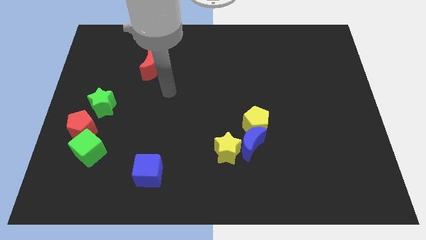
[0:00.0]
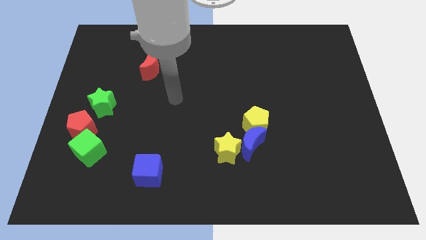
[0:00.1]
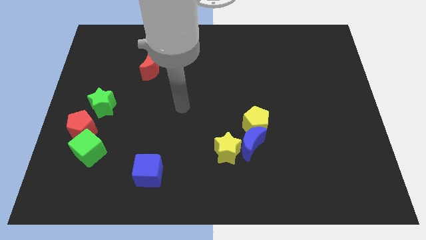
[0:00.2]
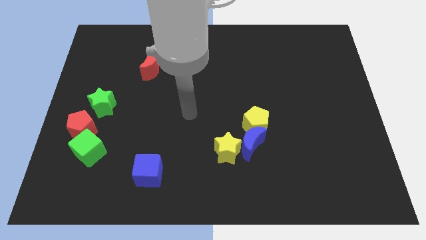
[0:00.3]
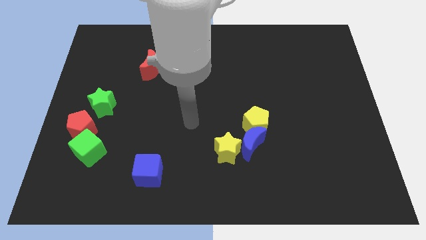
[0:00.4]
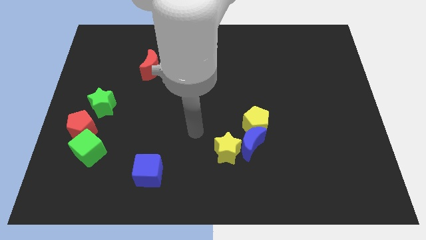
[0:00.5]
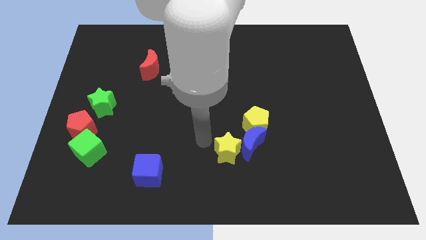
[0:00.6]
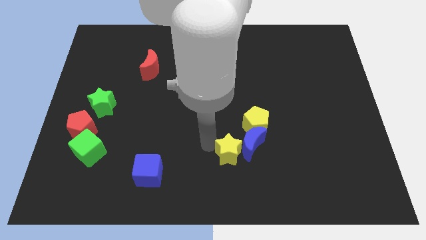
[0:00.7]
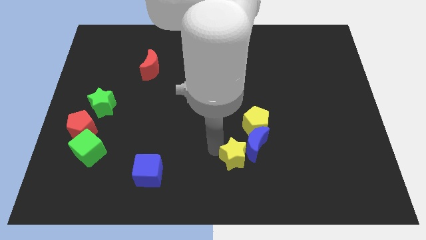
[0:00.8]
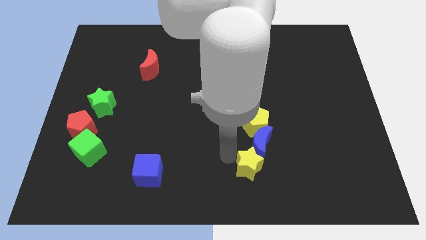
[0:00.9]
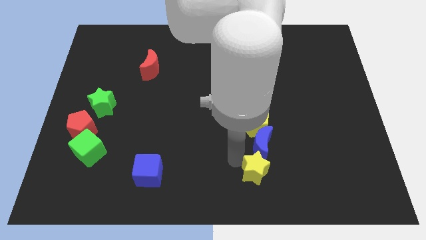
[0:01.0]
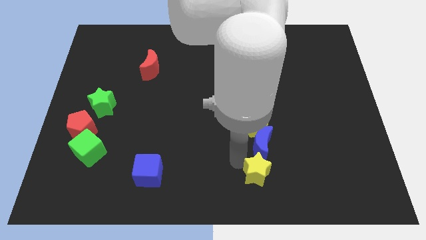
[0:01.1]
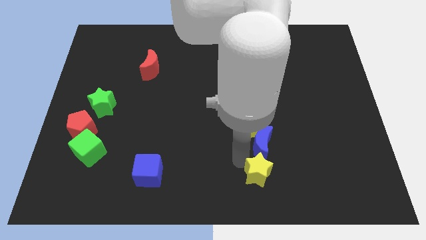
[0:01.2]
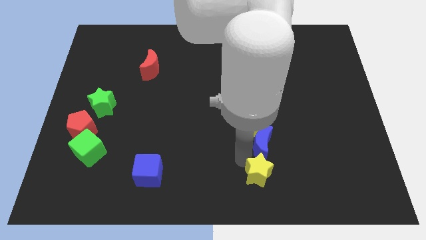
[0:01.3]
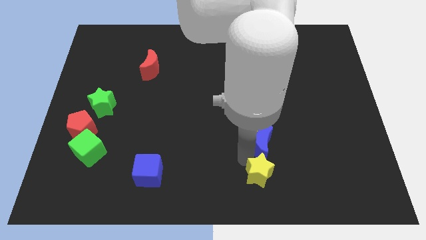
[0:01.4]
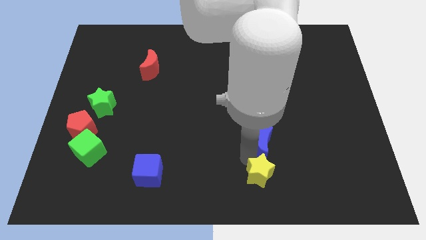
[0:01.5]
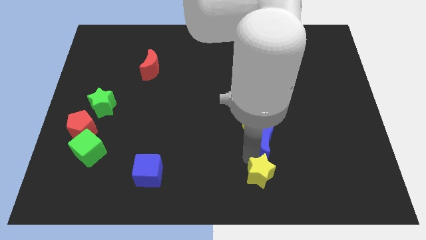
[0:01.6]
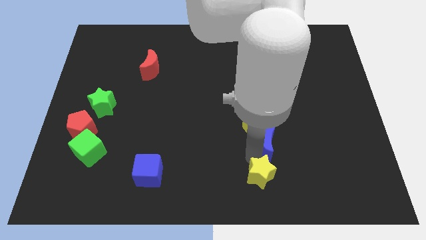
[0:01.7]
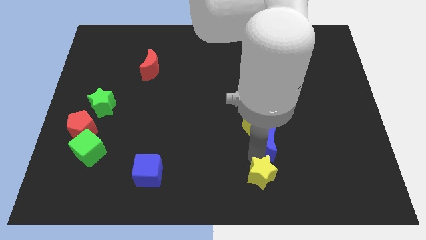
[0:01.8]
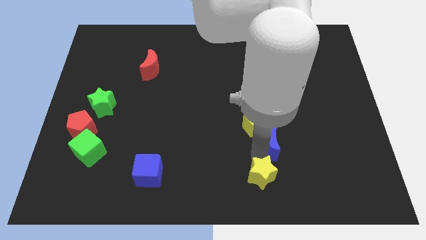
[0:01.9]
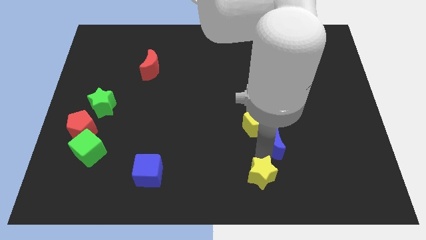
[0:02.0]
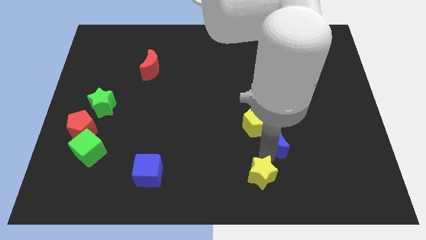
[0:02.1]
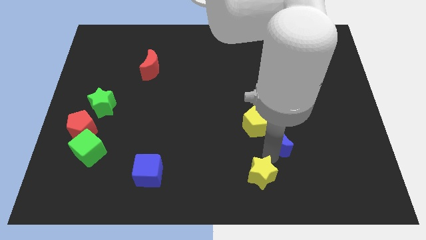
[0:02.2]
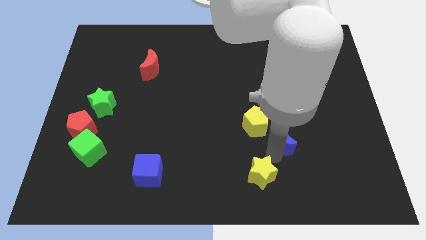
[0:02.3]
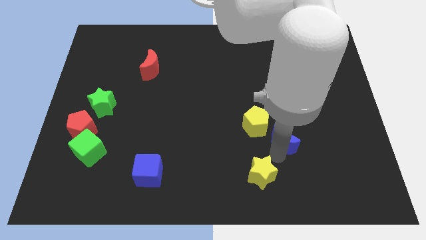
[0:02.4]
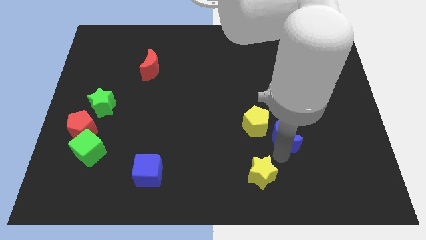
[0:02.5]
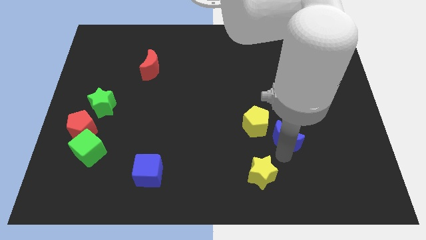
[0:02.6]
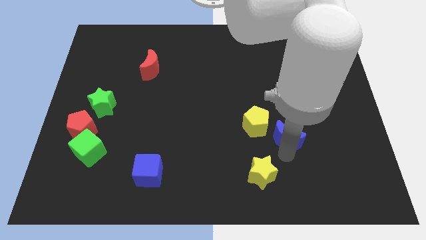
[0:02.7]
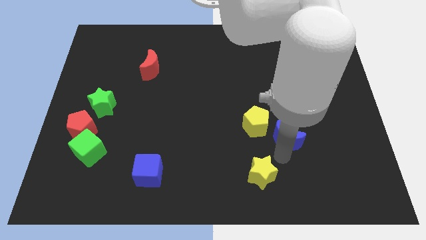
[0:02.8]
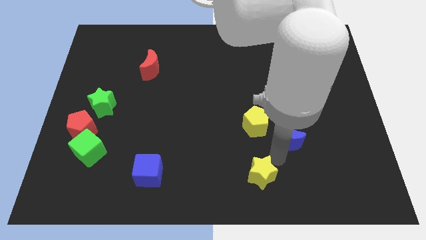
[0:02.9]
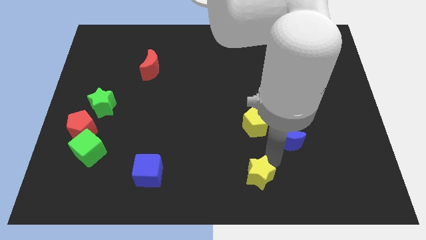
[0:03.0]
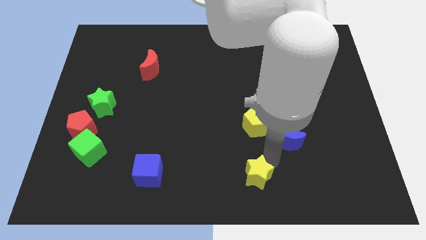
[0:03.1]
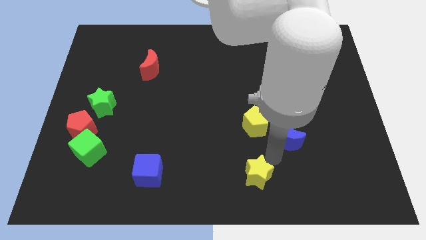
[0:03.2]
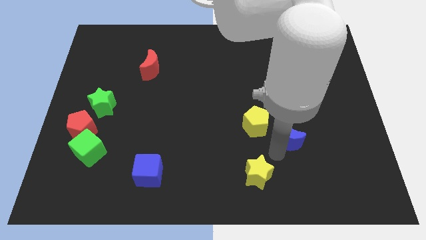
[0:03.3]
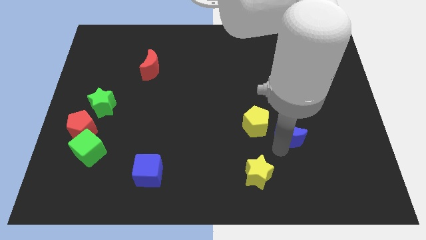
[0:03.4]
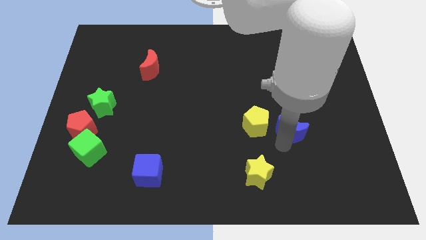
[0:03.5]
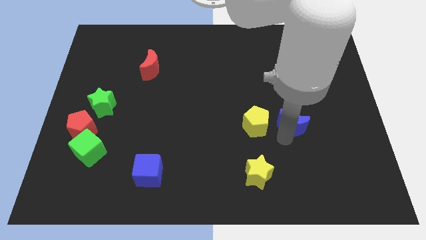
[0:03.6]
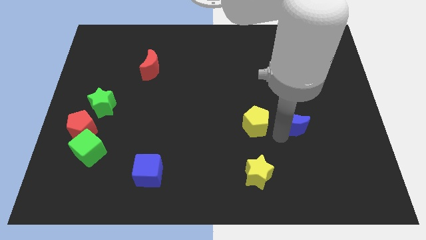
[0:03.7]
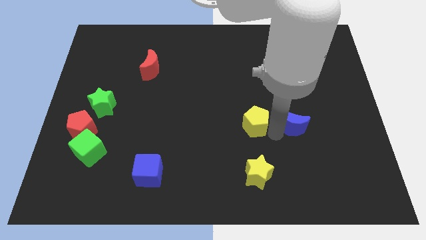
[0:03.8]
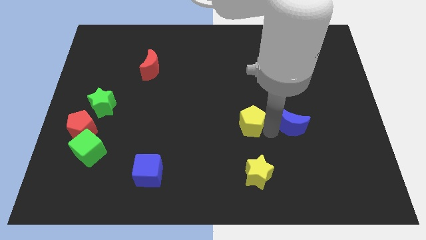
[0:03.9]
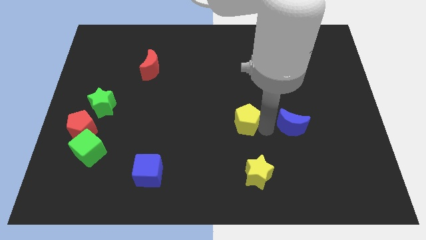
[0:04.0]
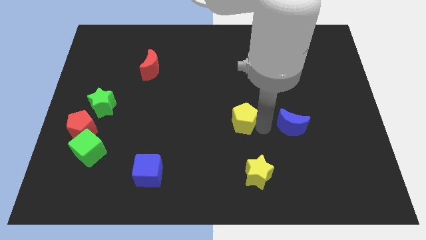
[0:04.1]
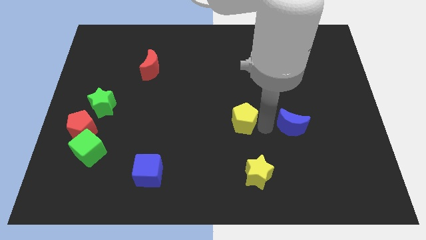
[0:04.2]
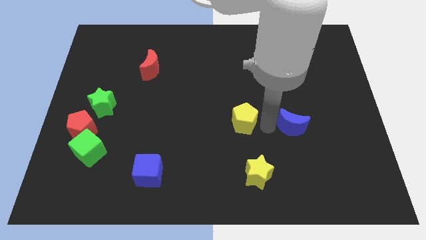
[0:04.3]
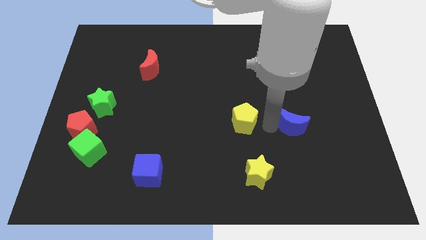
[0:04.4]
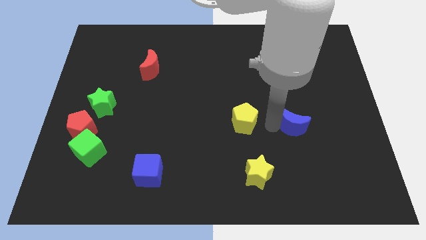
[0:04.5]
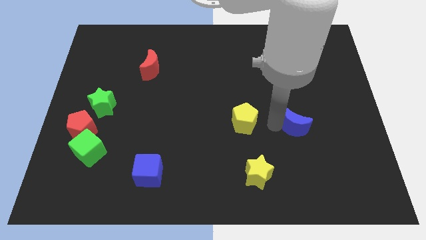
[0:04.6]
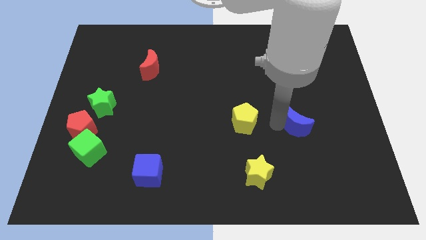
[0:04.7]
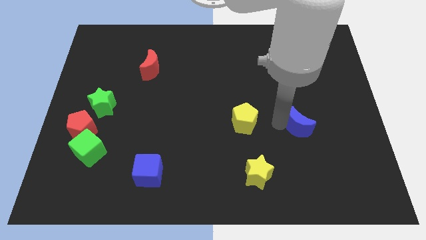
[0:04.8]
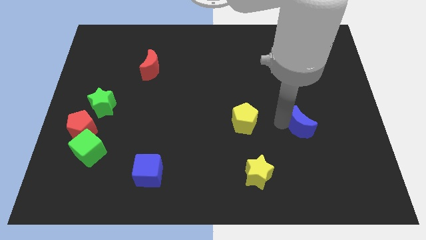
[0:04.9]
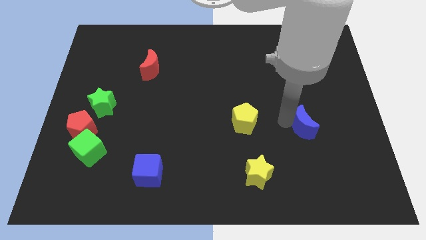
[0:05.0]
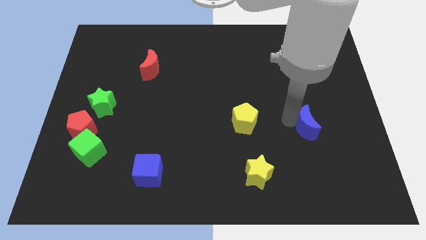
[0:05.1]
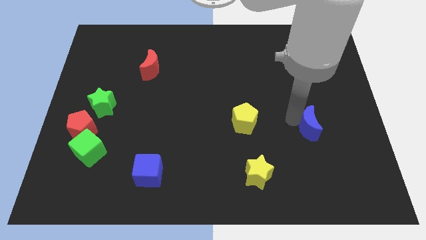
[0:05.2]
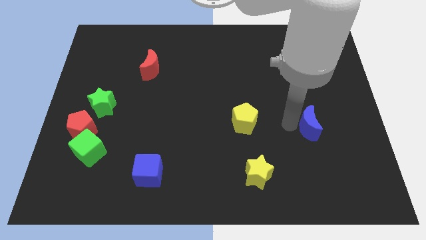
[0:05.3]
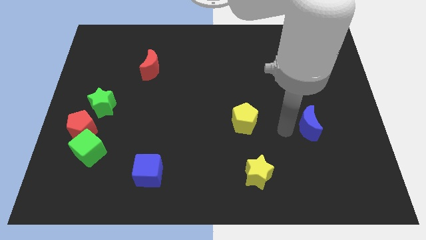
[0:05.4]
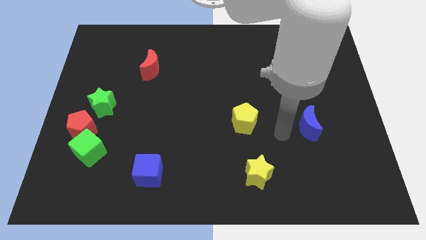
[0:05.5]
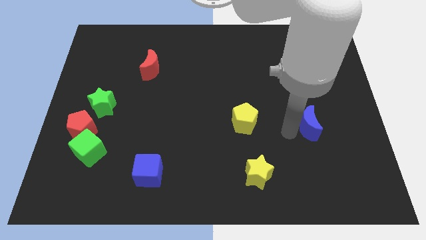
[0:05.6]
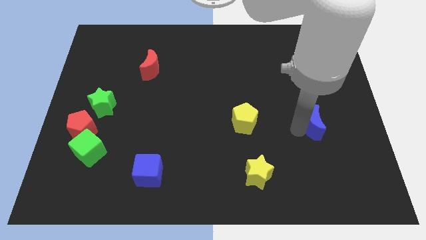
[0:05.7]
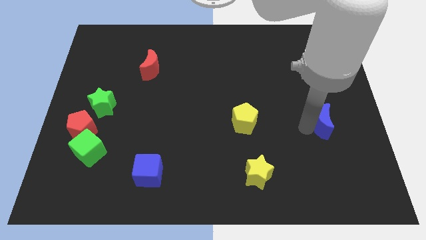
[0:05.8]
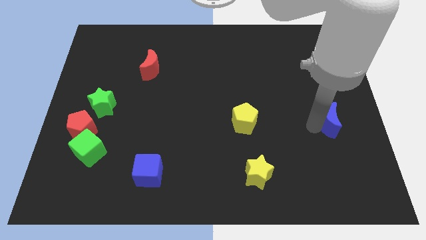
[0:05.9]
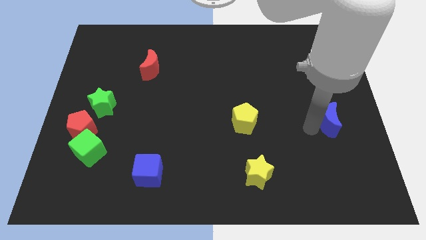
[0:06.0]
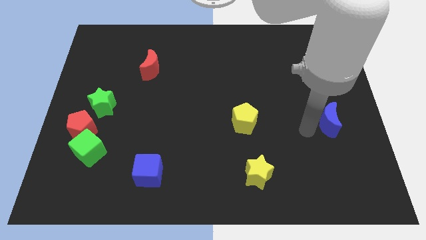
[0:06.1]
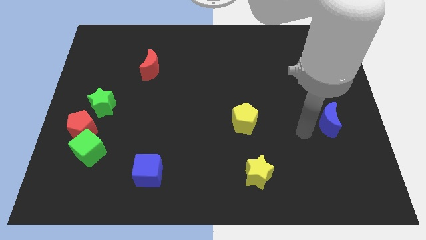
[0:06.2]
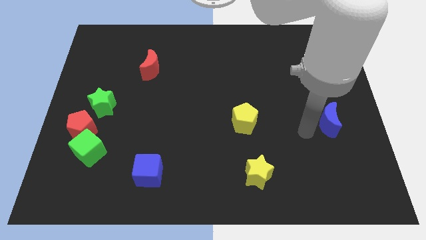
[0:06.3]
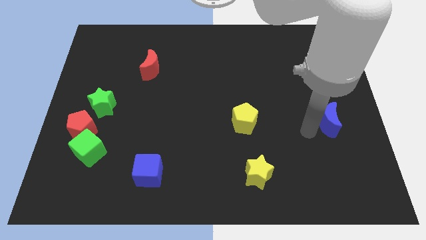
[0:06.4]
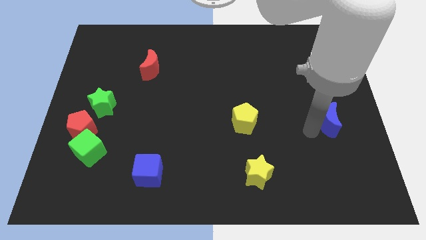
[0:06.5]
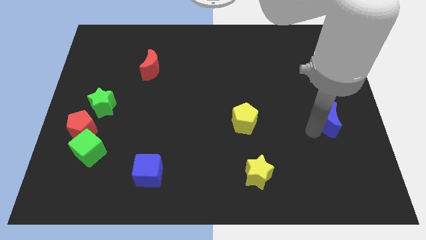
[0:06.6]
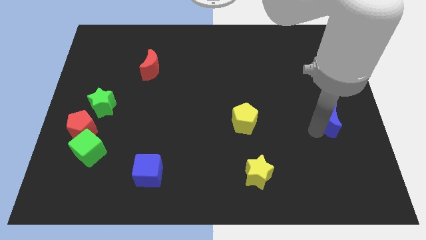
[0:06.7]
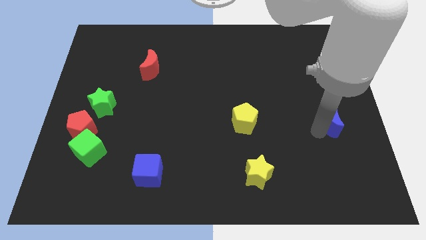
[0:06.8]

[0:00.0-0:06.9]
move the blue moon to the right side

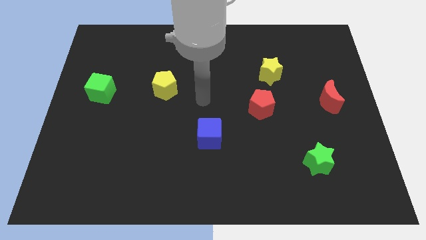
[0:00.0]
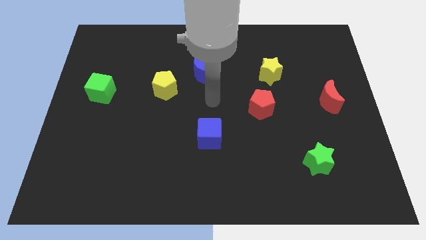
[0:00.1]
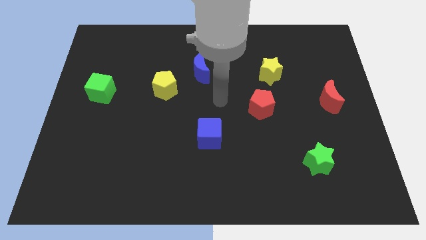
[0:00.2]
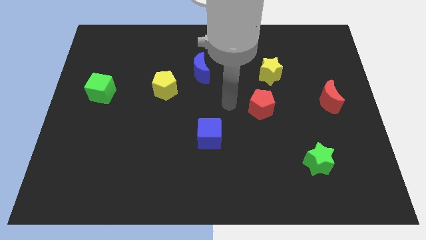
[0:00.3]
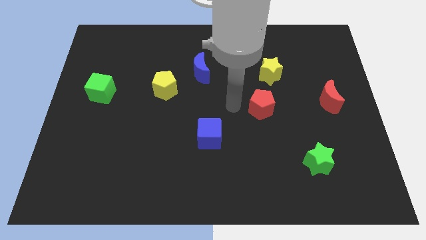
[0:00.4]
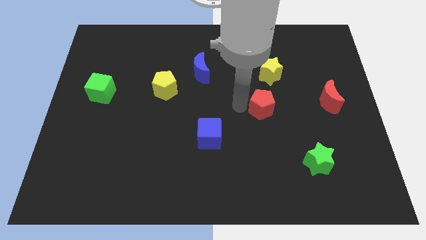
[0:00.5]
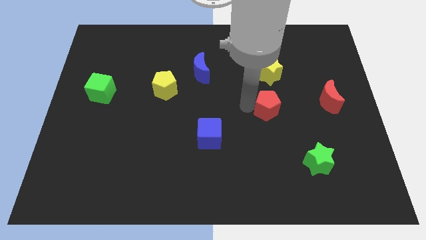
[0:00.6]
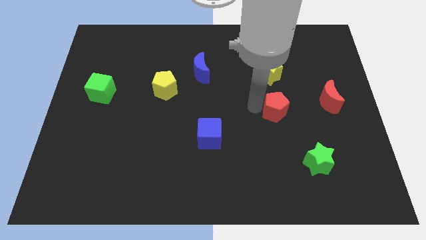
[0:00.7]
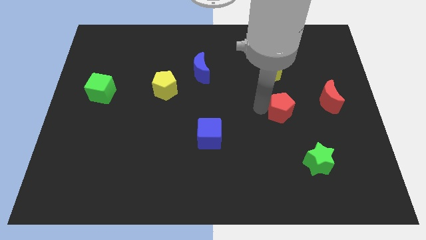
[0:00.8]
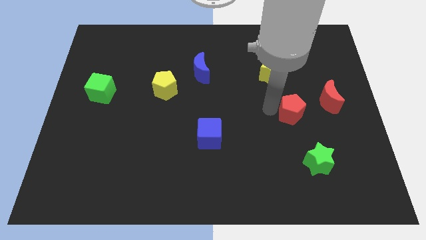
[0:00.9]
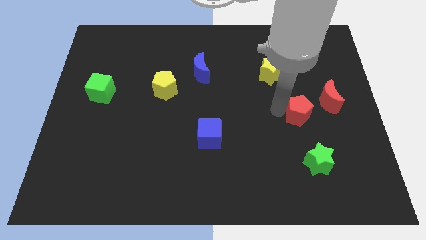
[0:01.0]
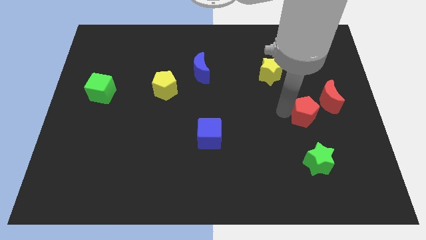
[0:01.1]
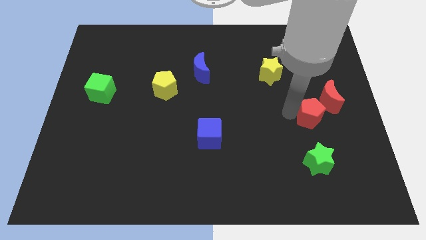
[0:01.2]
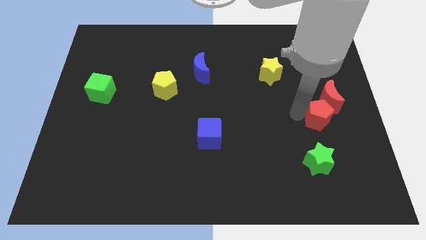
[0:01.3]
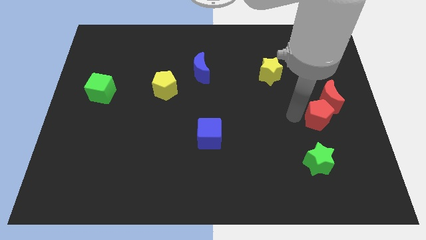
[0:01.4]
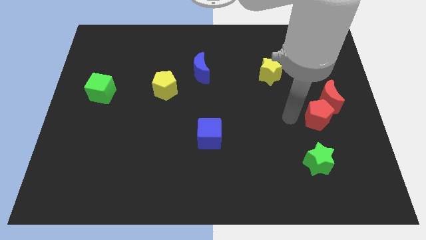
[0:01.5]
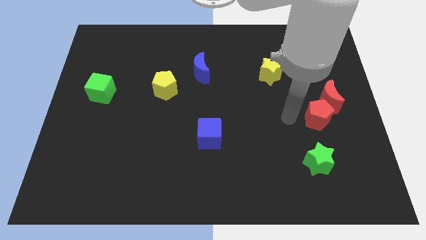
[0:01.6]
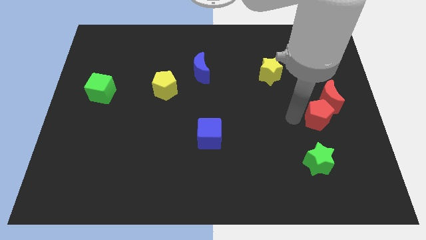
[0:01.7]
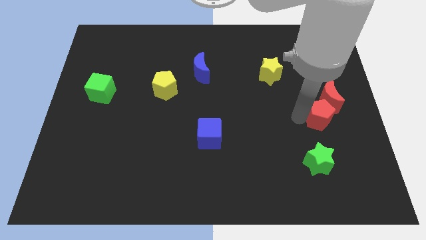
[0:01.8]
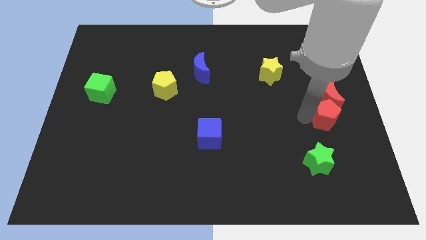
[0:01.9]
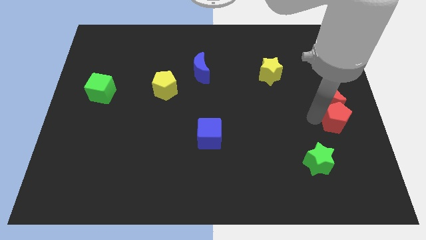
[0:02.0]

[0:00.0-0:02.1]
push the red pentagon to the center right
